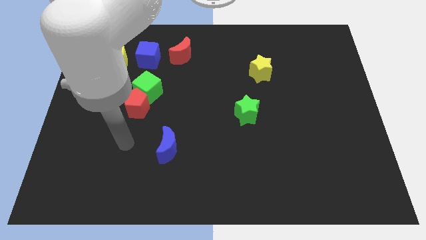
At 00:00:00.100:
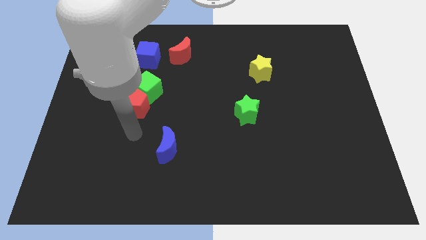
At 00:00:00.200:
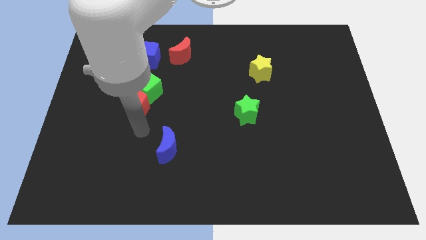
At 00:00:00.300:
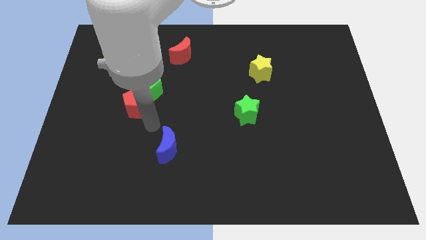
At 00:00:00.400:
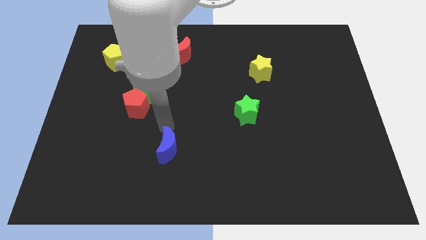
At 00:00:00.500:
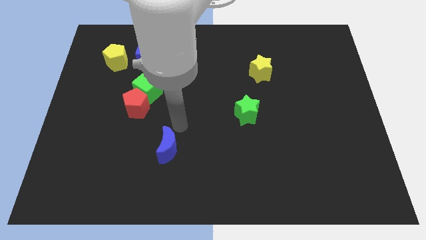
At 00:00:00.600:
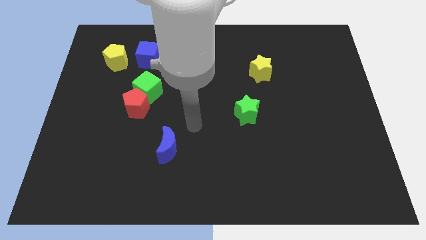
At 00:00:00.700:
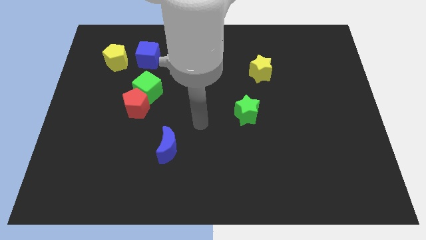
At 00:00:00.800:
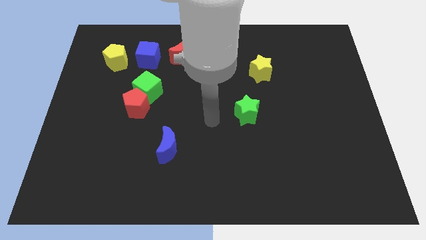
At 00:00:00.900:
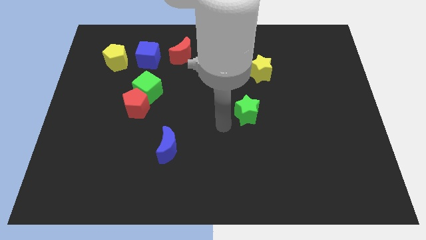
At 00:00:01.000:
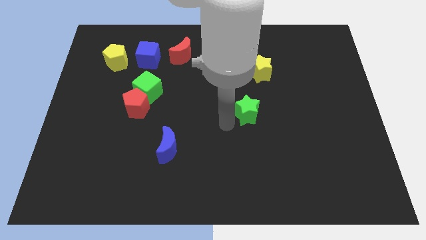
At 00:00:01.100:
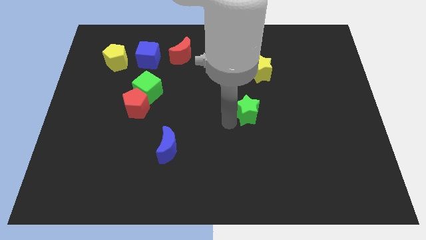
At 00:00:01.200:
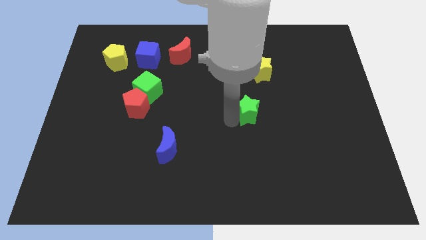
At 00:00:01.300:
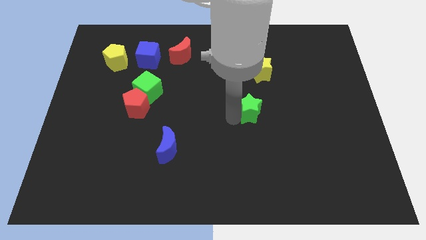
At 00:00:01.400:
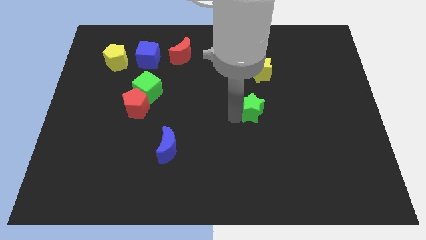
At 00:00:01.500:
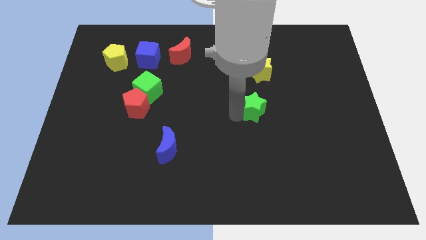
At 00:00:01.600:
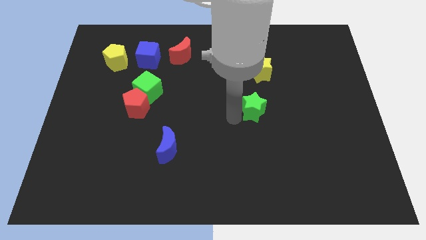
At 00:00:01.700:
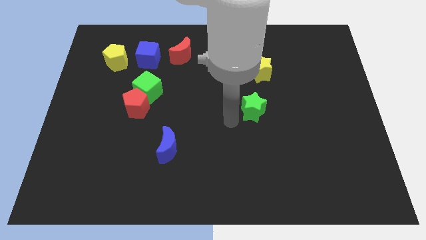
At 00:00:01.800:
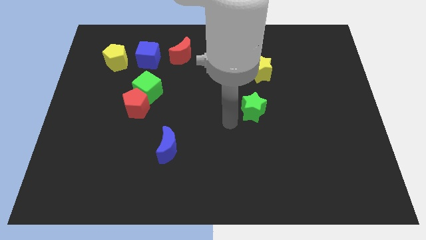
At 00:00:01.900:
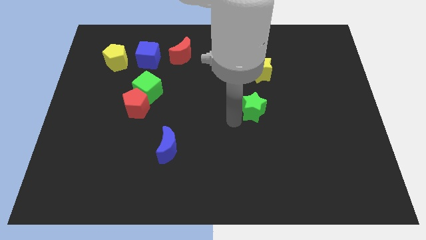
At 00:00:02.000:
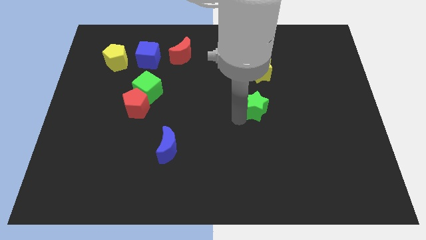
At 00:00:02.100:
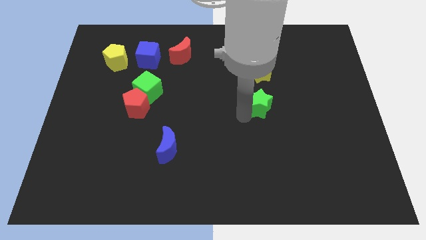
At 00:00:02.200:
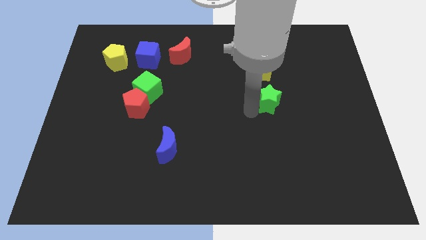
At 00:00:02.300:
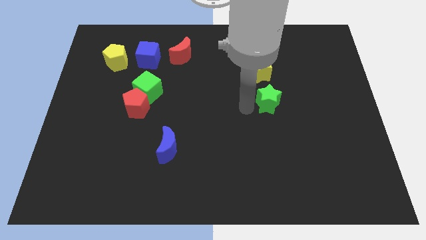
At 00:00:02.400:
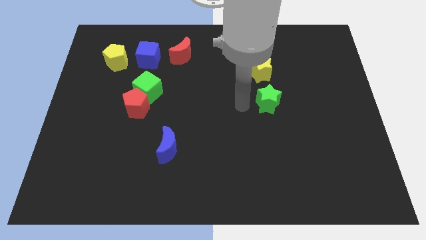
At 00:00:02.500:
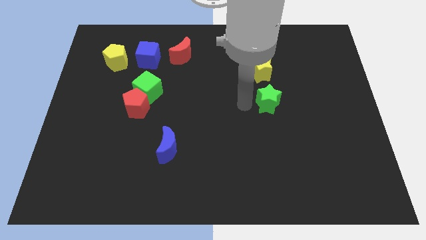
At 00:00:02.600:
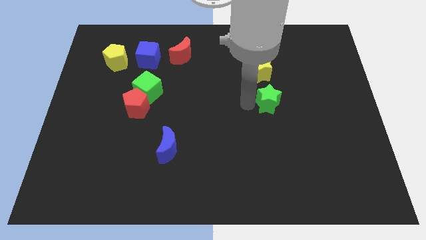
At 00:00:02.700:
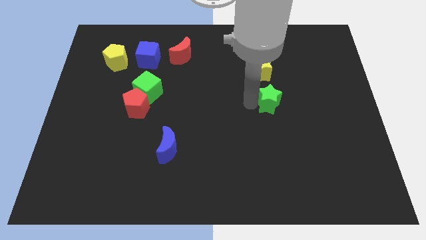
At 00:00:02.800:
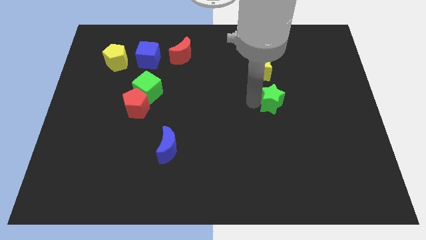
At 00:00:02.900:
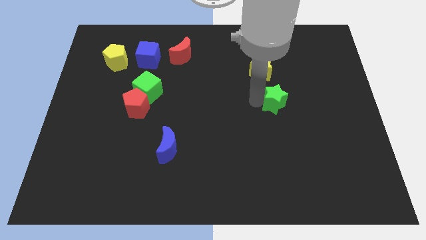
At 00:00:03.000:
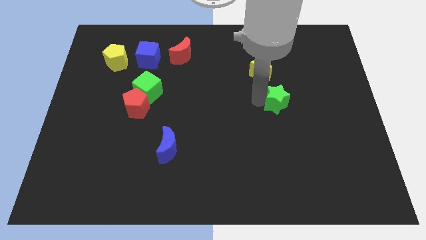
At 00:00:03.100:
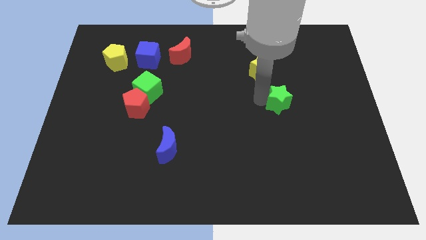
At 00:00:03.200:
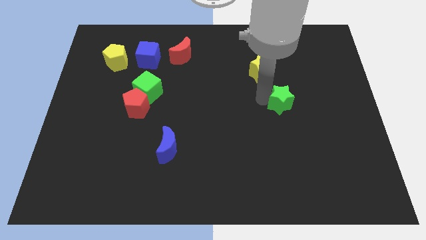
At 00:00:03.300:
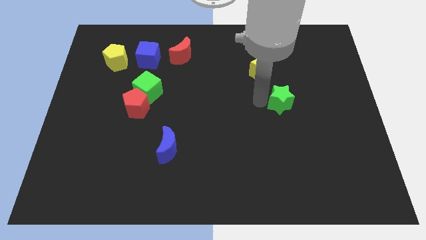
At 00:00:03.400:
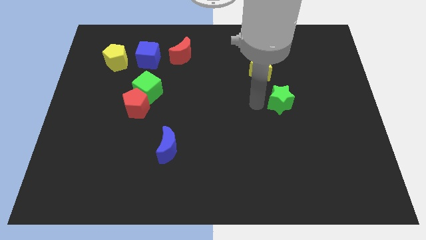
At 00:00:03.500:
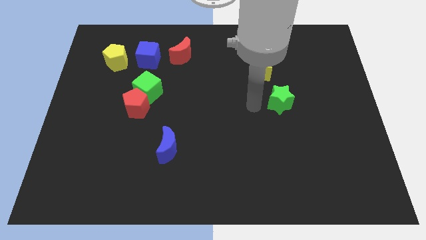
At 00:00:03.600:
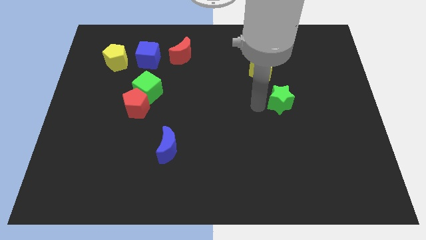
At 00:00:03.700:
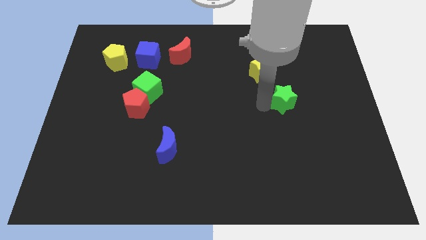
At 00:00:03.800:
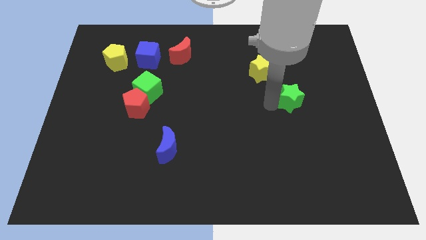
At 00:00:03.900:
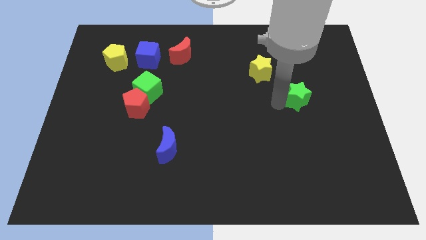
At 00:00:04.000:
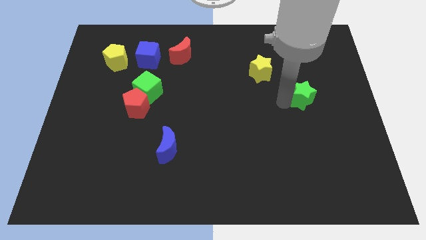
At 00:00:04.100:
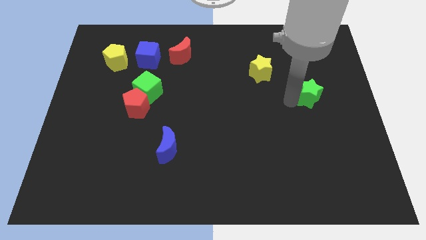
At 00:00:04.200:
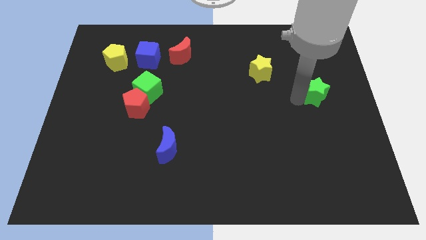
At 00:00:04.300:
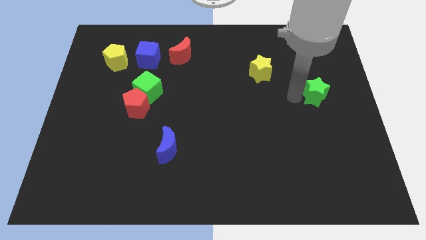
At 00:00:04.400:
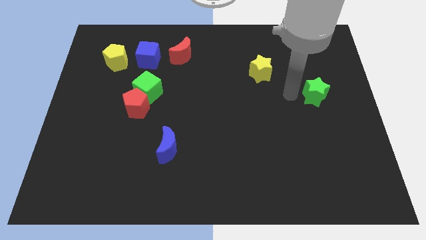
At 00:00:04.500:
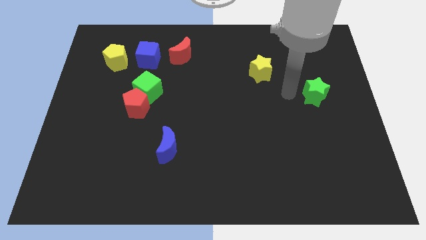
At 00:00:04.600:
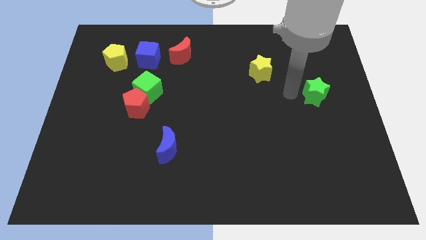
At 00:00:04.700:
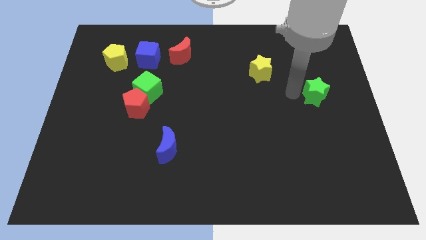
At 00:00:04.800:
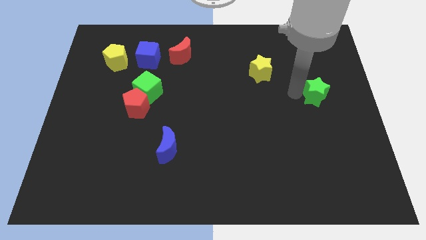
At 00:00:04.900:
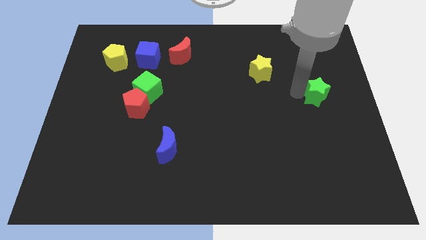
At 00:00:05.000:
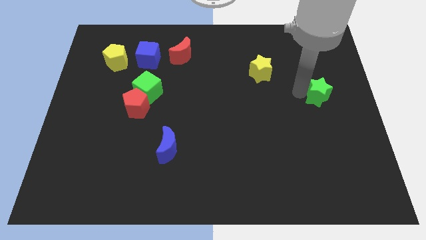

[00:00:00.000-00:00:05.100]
push the green star to the right side of the board

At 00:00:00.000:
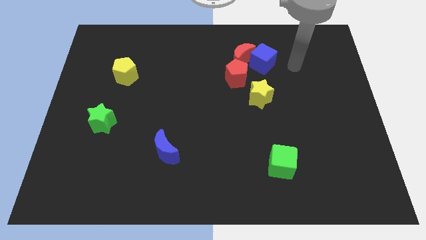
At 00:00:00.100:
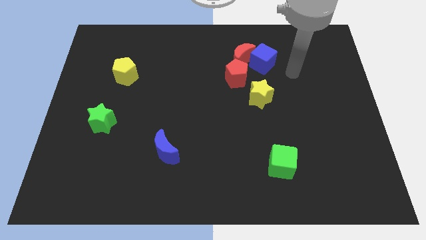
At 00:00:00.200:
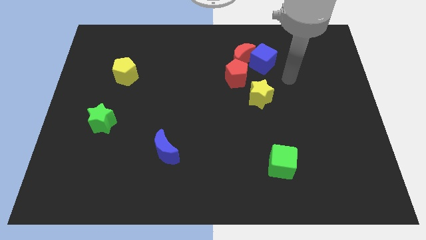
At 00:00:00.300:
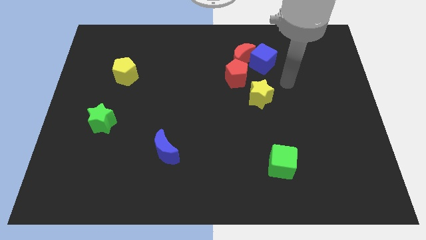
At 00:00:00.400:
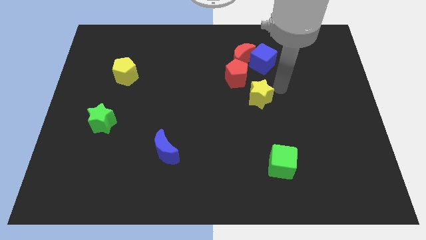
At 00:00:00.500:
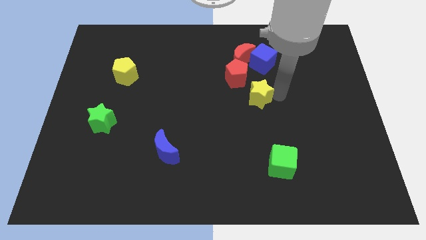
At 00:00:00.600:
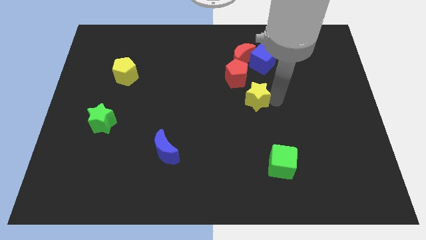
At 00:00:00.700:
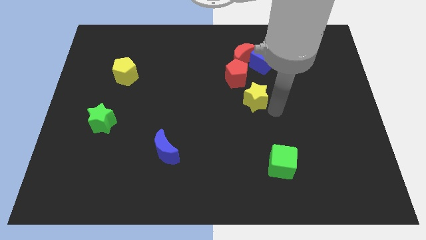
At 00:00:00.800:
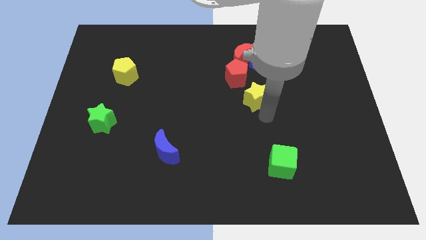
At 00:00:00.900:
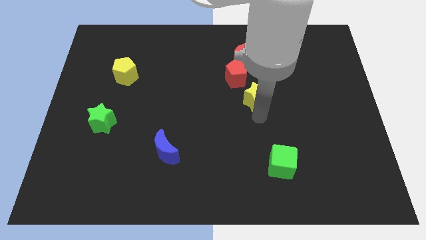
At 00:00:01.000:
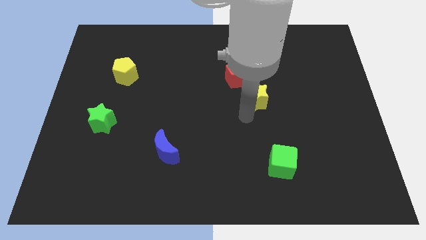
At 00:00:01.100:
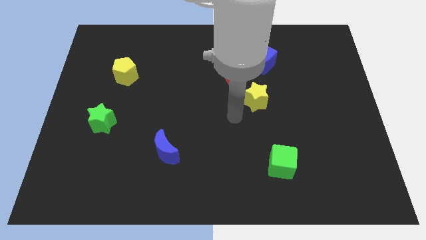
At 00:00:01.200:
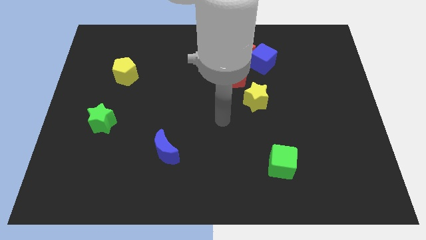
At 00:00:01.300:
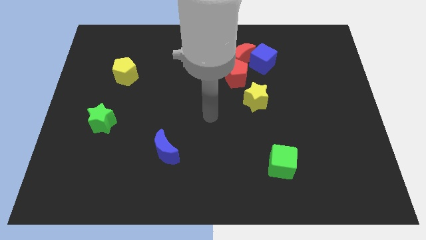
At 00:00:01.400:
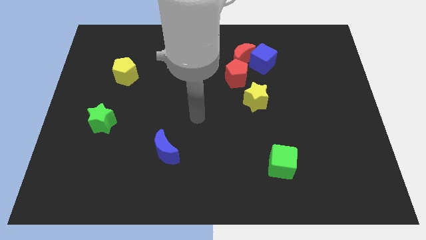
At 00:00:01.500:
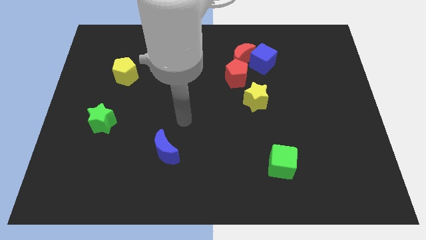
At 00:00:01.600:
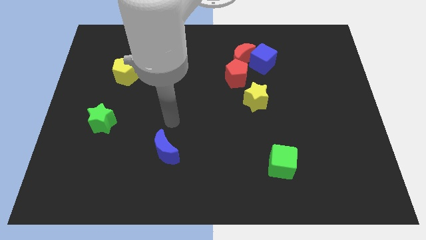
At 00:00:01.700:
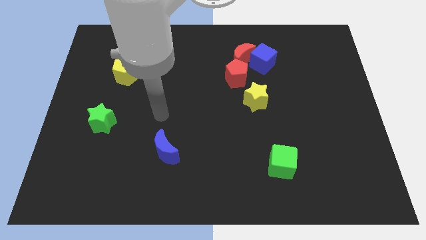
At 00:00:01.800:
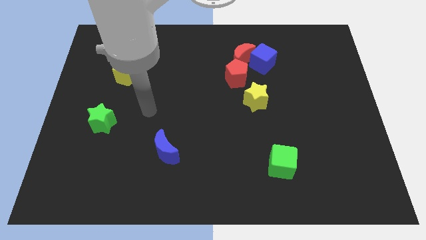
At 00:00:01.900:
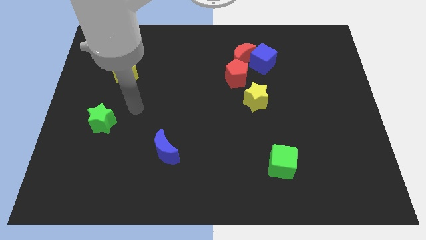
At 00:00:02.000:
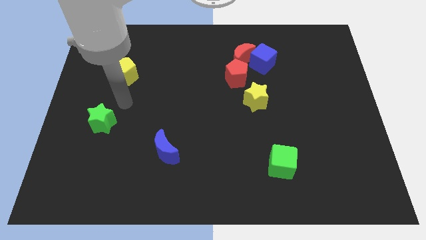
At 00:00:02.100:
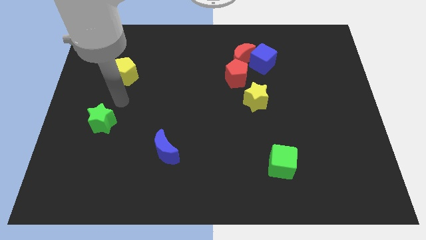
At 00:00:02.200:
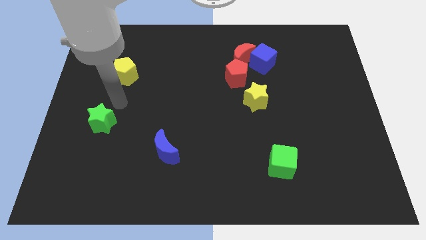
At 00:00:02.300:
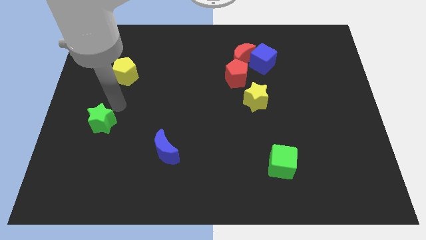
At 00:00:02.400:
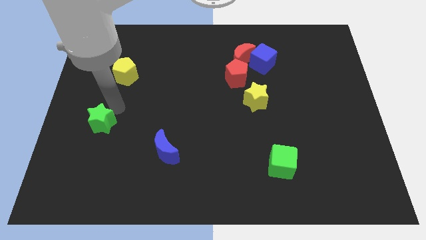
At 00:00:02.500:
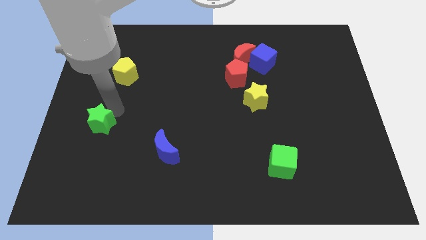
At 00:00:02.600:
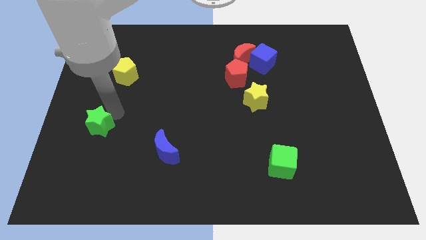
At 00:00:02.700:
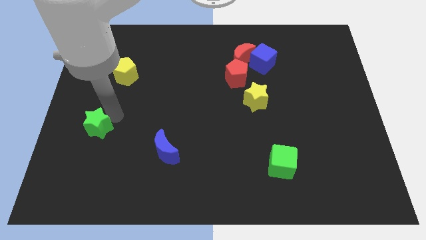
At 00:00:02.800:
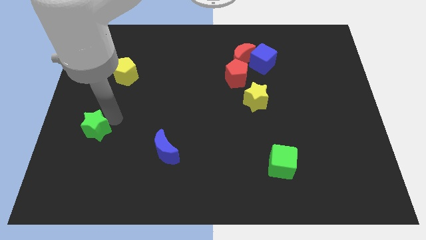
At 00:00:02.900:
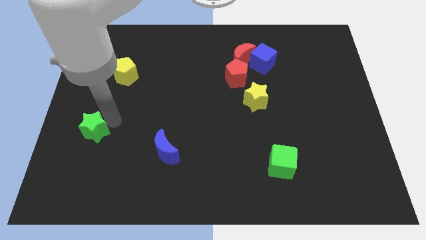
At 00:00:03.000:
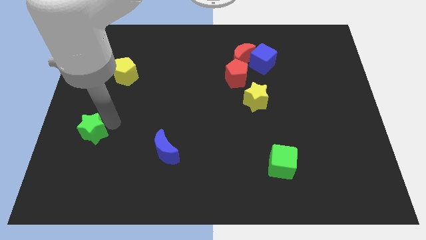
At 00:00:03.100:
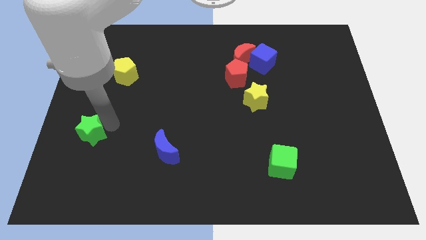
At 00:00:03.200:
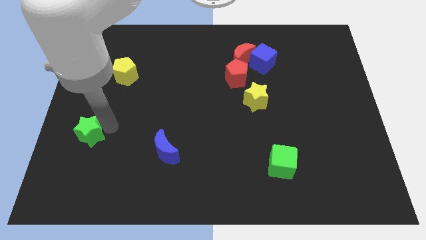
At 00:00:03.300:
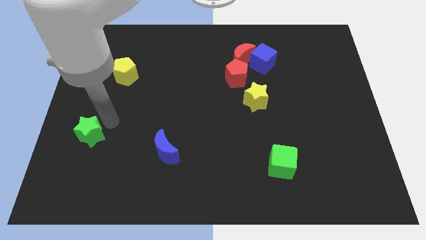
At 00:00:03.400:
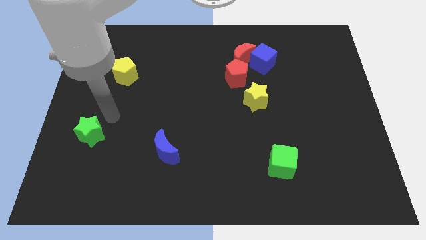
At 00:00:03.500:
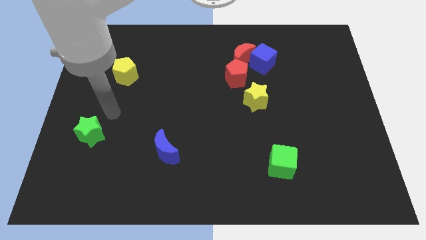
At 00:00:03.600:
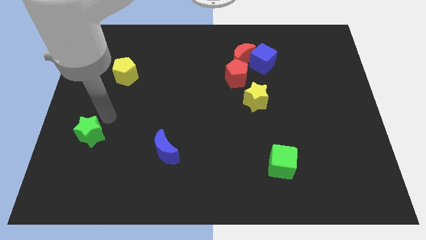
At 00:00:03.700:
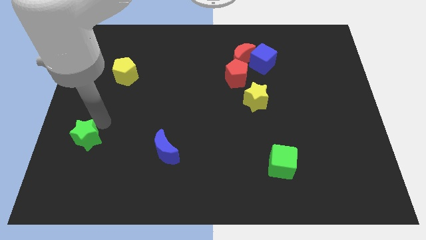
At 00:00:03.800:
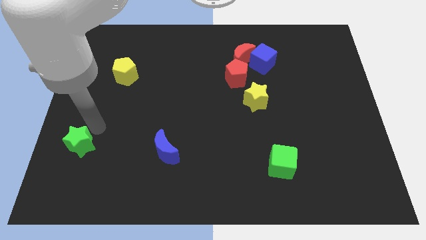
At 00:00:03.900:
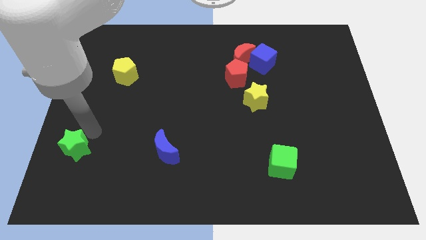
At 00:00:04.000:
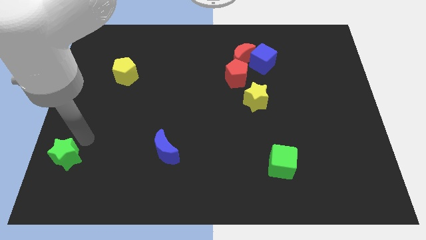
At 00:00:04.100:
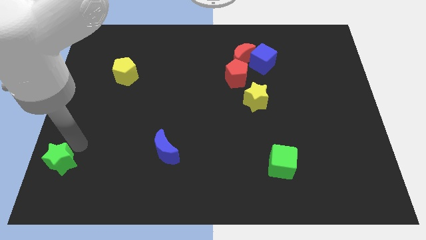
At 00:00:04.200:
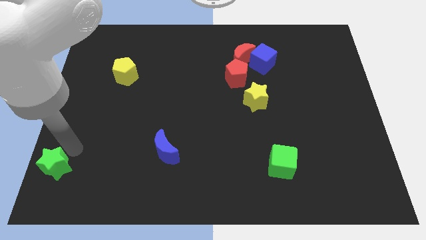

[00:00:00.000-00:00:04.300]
move the green star to the lower left corner
